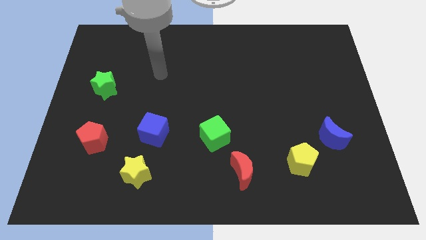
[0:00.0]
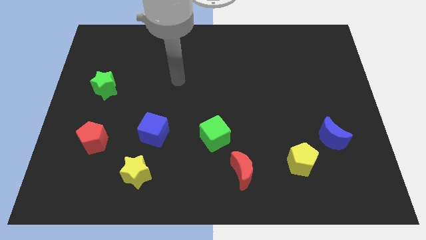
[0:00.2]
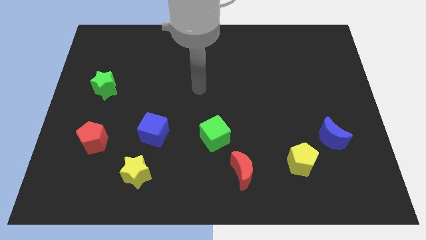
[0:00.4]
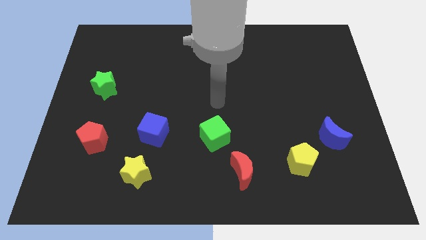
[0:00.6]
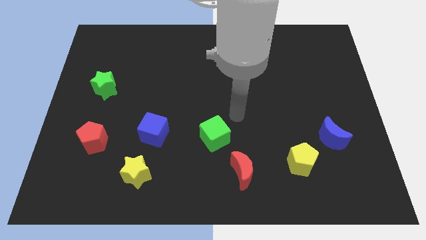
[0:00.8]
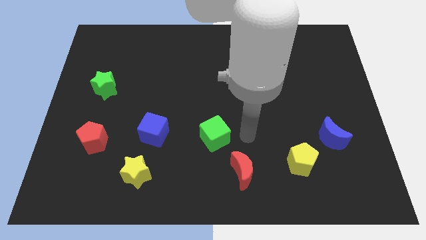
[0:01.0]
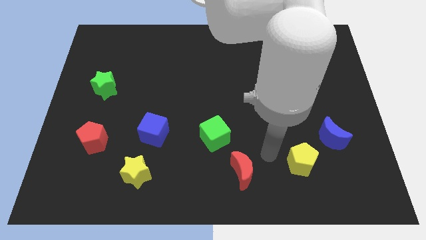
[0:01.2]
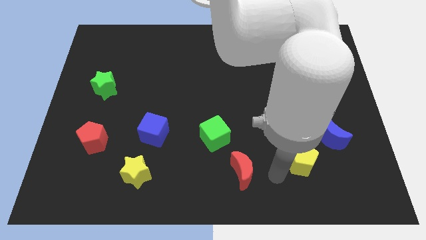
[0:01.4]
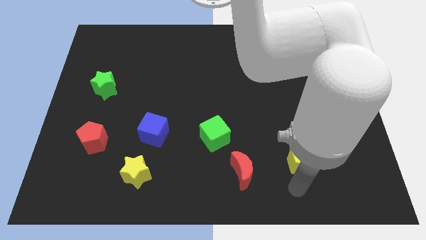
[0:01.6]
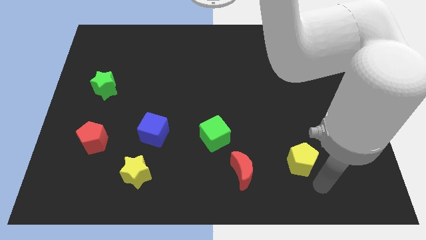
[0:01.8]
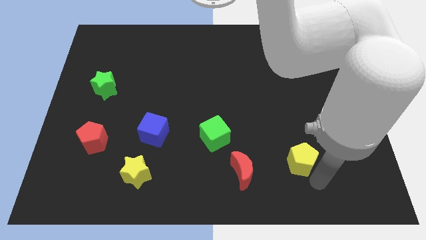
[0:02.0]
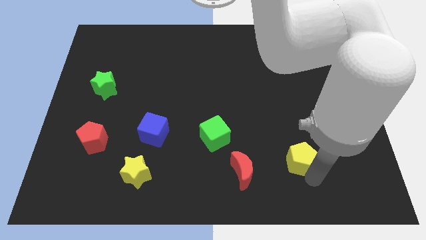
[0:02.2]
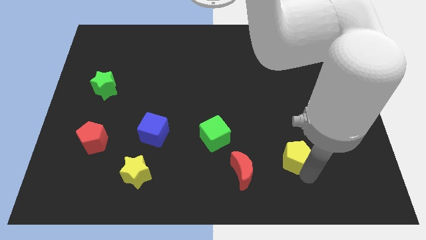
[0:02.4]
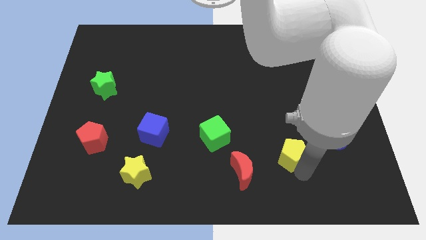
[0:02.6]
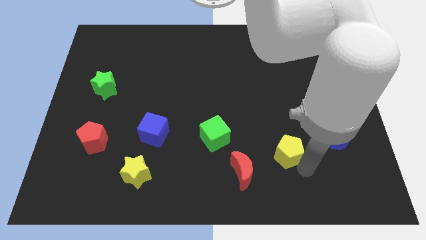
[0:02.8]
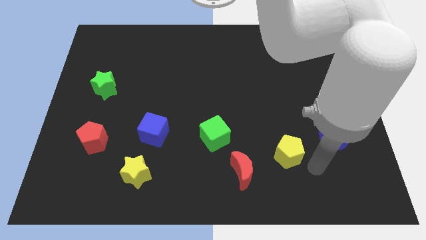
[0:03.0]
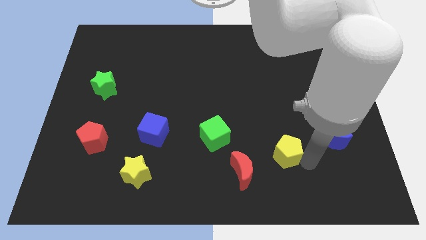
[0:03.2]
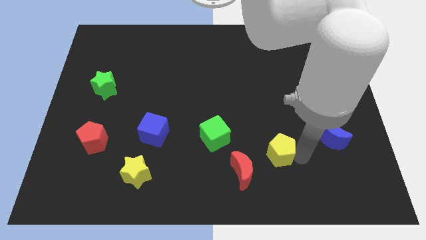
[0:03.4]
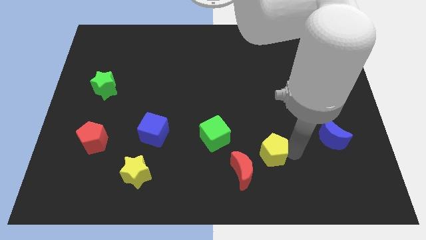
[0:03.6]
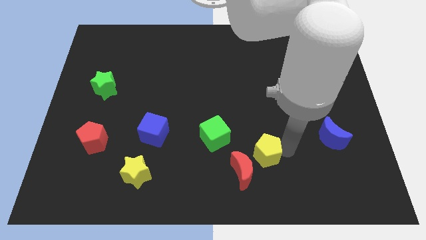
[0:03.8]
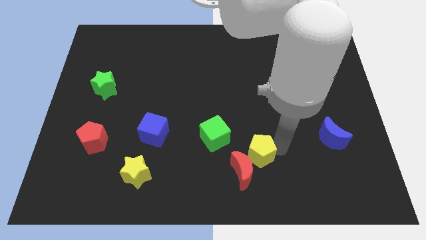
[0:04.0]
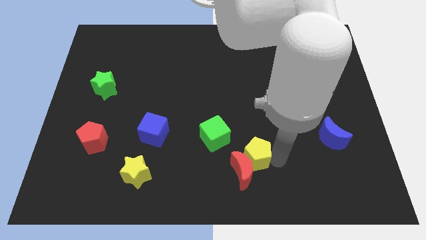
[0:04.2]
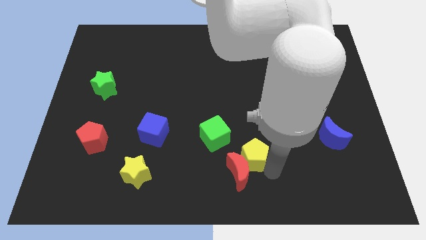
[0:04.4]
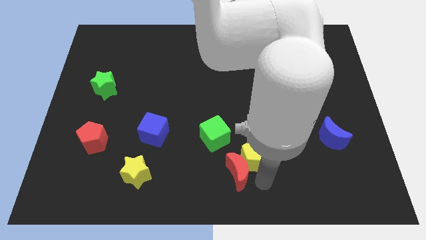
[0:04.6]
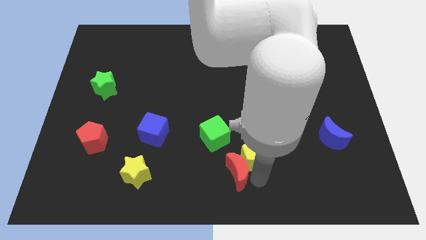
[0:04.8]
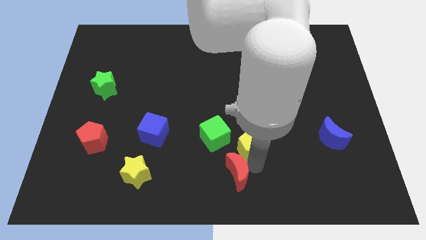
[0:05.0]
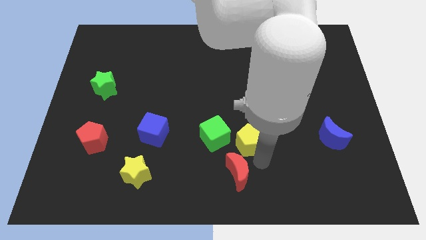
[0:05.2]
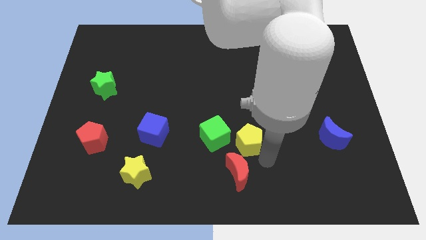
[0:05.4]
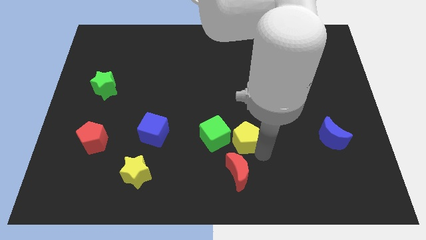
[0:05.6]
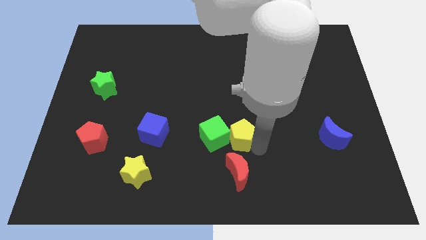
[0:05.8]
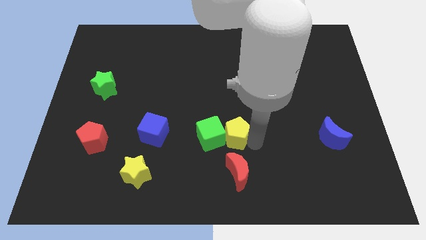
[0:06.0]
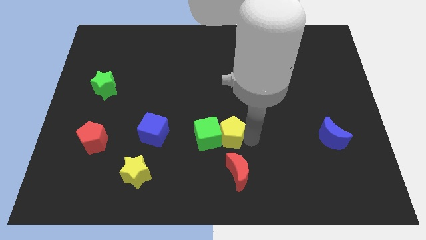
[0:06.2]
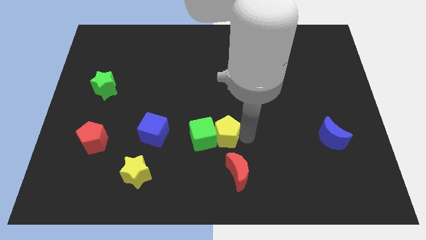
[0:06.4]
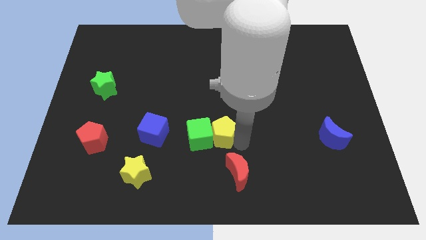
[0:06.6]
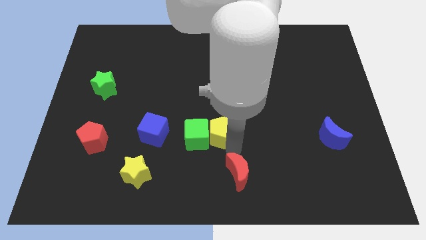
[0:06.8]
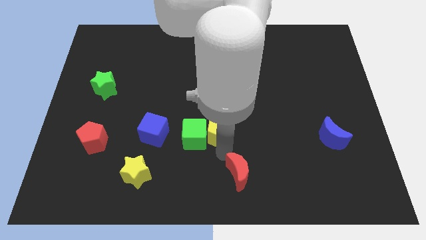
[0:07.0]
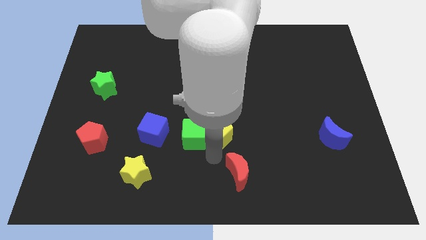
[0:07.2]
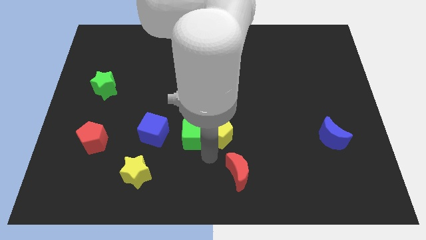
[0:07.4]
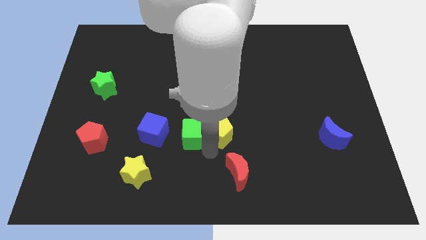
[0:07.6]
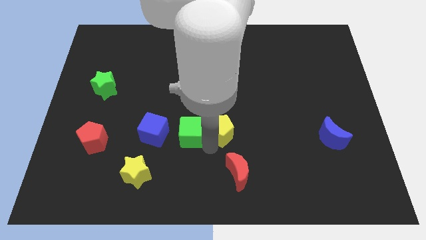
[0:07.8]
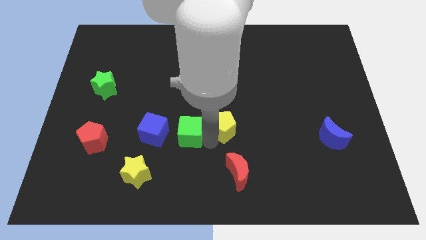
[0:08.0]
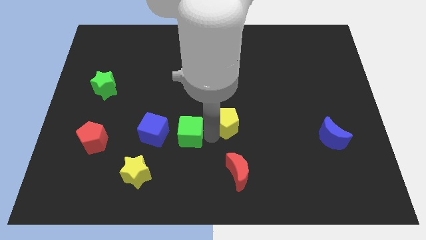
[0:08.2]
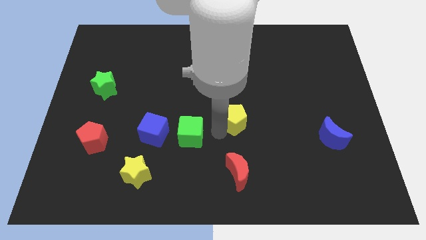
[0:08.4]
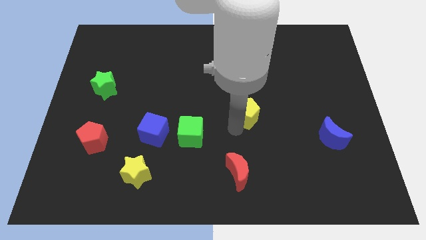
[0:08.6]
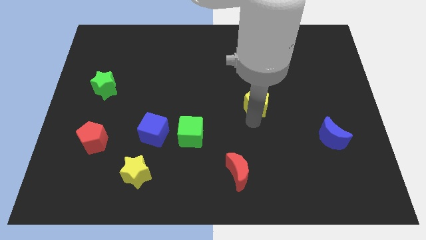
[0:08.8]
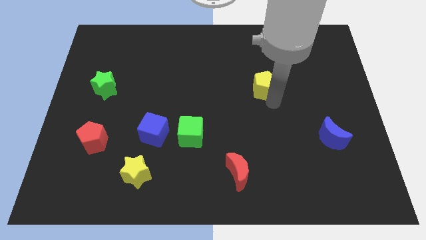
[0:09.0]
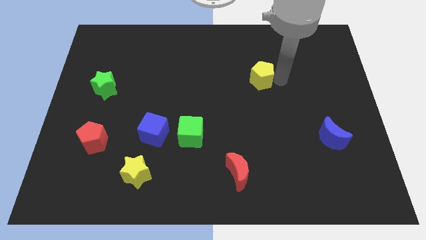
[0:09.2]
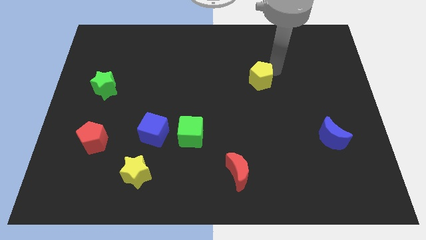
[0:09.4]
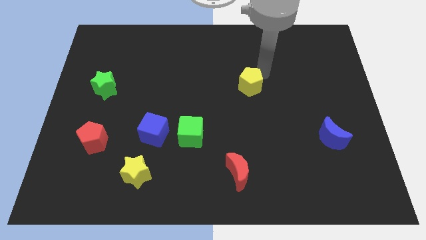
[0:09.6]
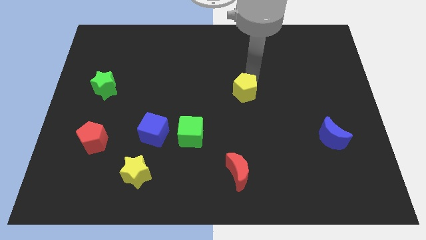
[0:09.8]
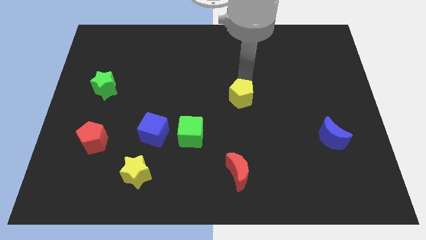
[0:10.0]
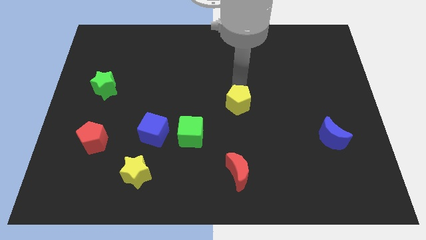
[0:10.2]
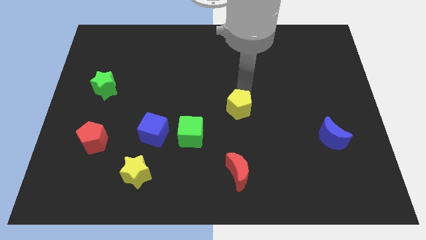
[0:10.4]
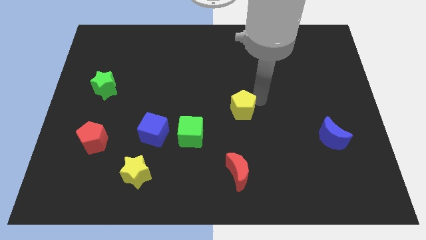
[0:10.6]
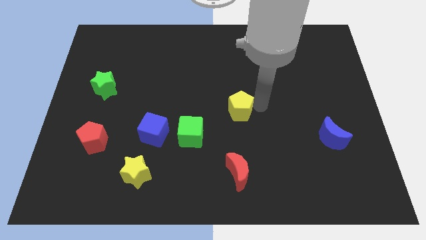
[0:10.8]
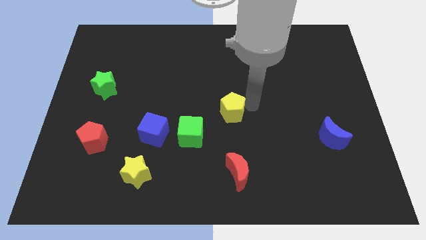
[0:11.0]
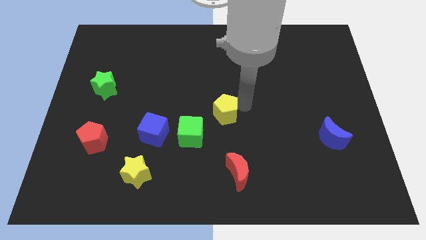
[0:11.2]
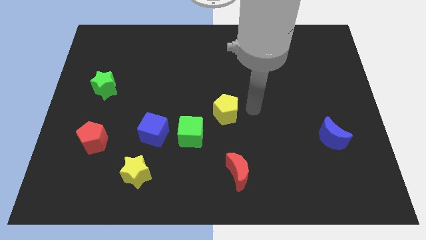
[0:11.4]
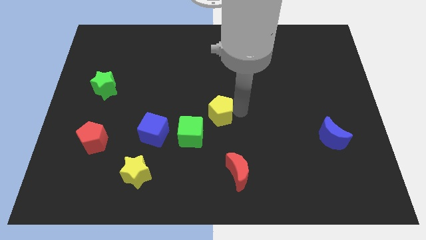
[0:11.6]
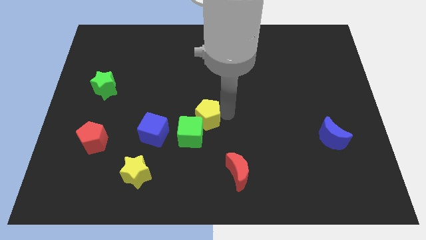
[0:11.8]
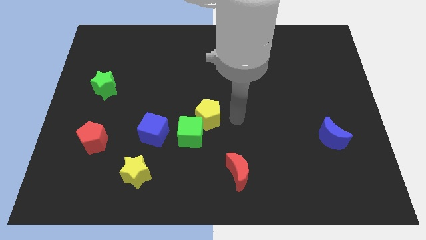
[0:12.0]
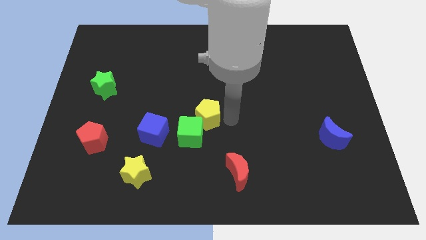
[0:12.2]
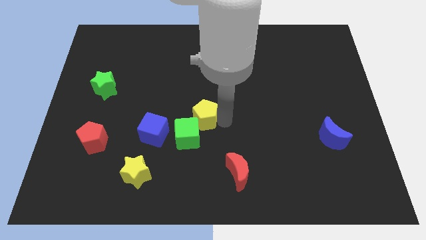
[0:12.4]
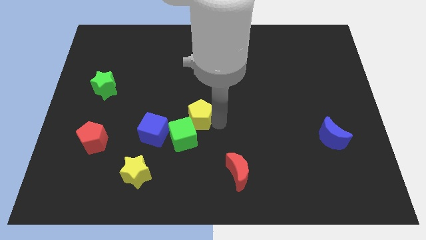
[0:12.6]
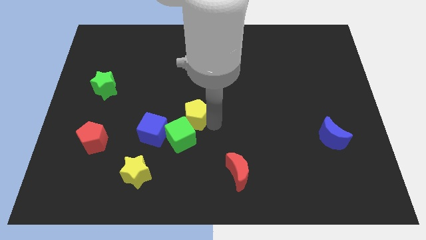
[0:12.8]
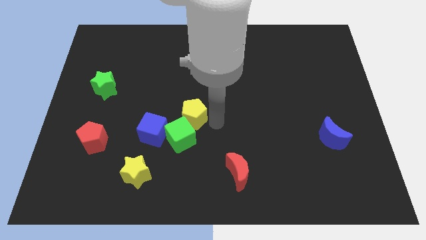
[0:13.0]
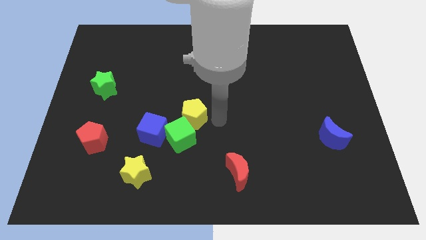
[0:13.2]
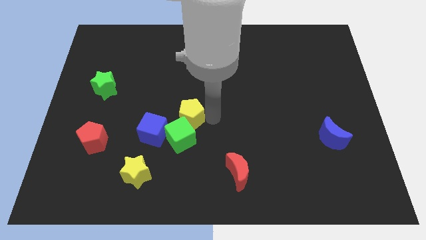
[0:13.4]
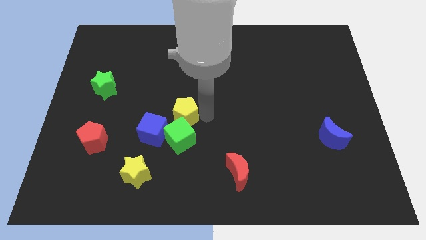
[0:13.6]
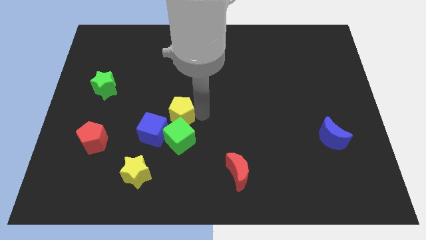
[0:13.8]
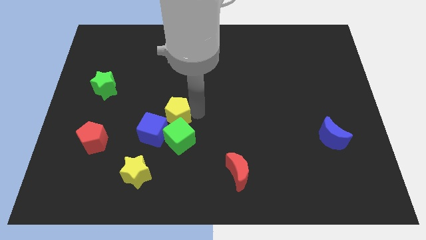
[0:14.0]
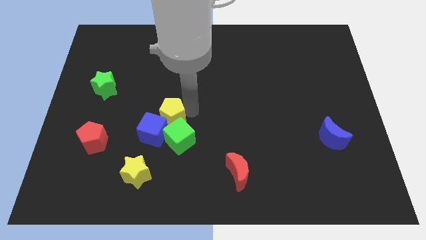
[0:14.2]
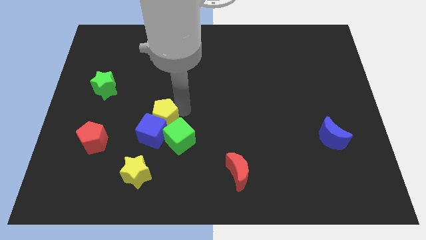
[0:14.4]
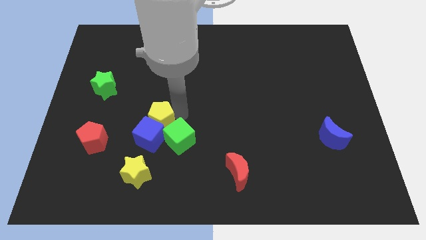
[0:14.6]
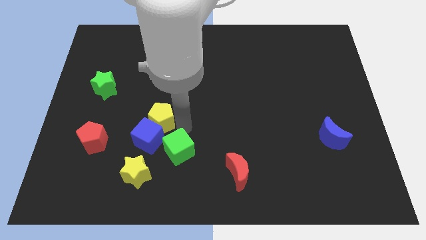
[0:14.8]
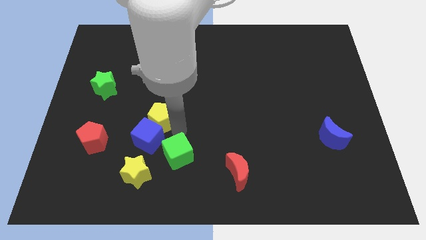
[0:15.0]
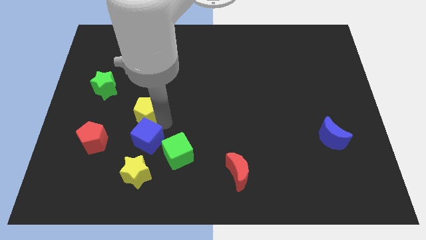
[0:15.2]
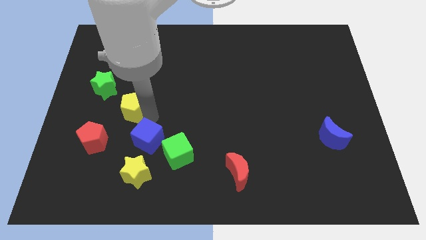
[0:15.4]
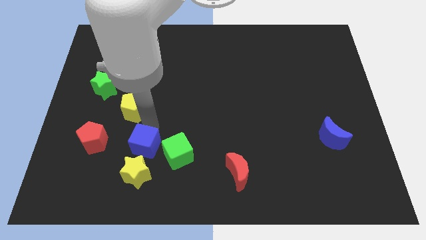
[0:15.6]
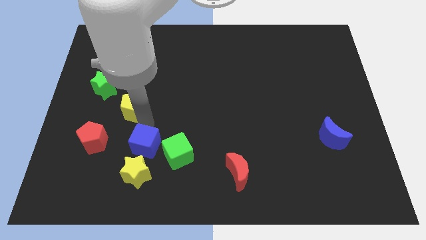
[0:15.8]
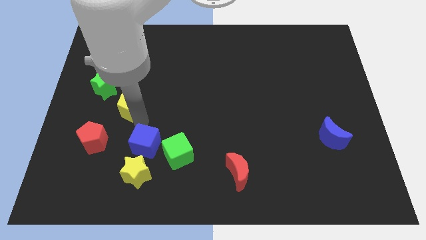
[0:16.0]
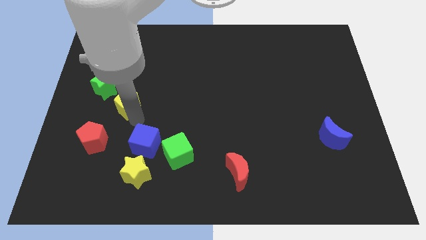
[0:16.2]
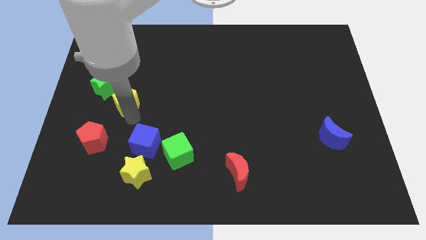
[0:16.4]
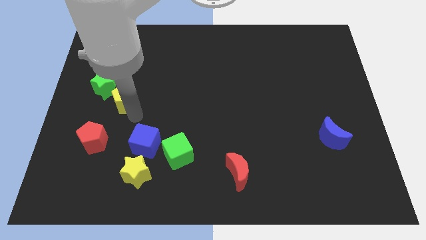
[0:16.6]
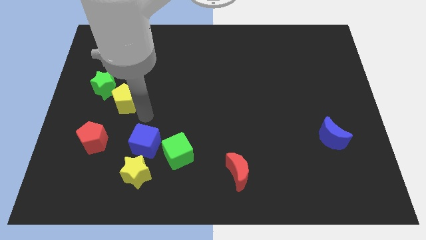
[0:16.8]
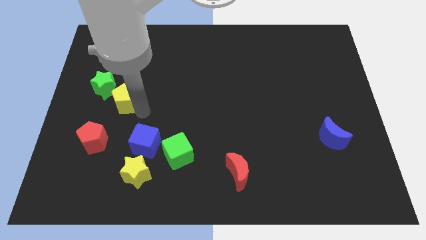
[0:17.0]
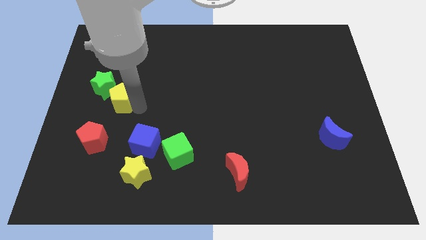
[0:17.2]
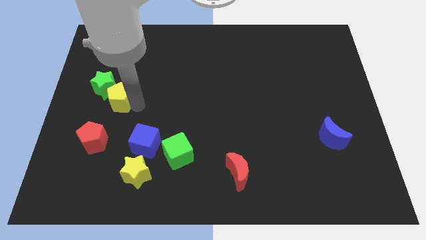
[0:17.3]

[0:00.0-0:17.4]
push the yellow pentagon to the green star
